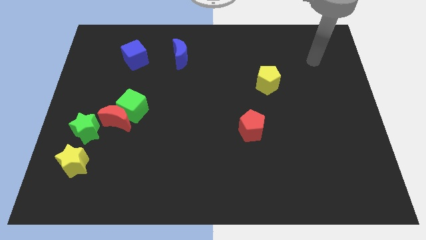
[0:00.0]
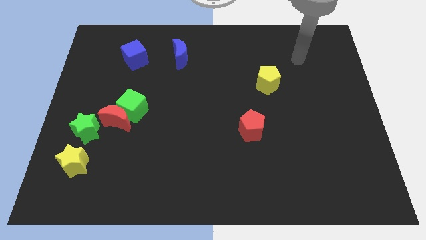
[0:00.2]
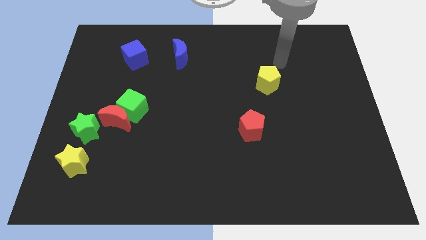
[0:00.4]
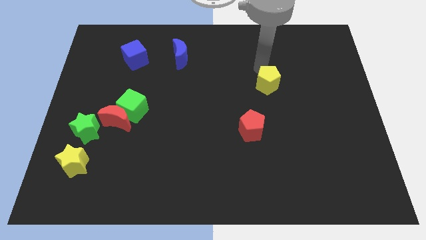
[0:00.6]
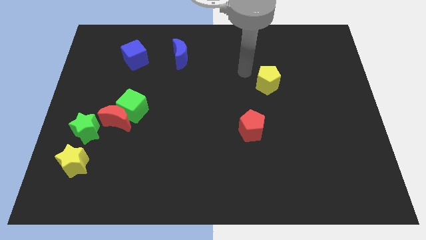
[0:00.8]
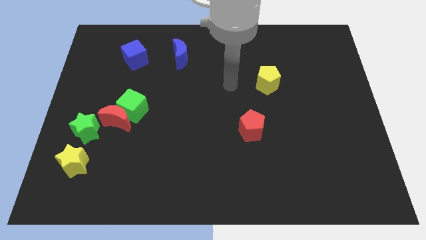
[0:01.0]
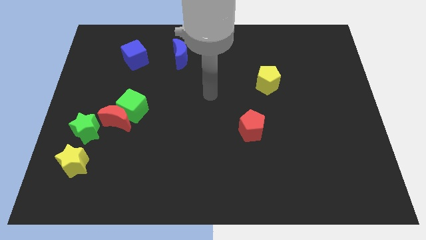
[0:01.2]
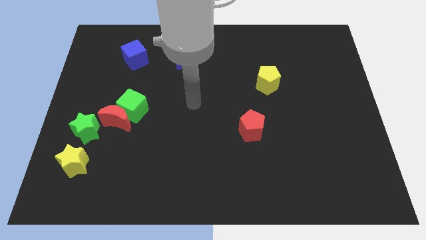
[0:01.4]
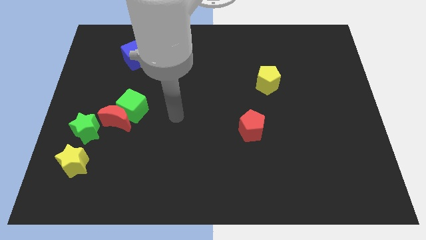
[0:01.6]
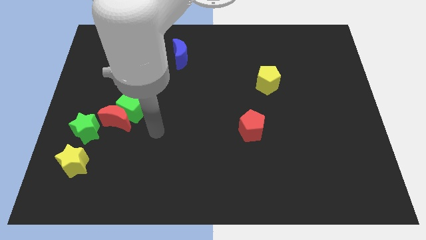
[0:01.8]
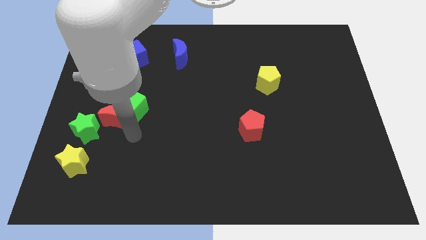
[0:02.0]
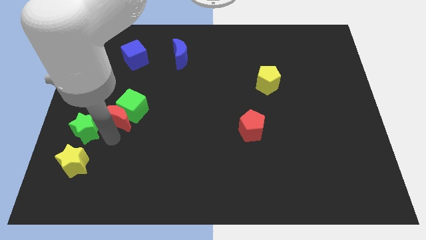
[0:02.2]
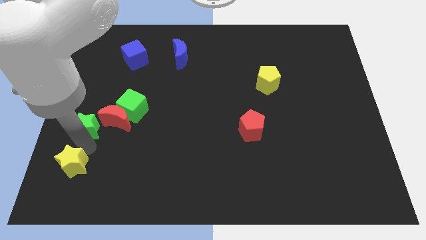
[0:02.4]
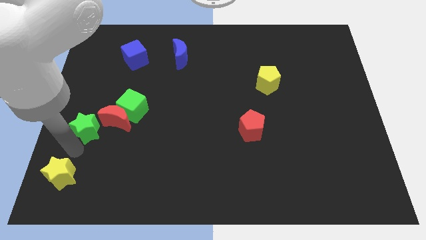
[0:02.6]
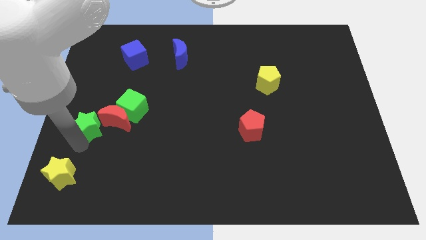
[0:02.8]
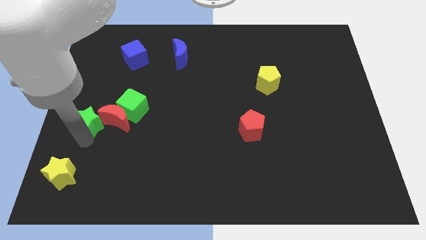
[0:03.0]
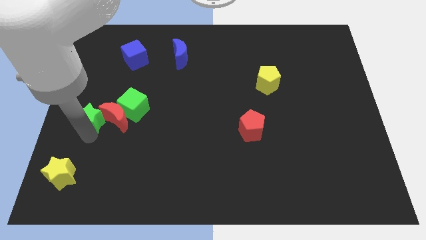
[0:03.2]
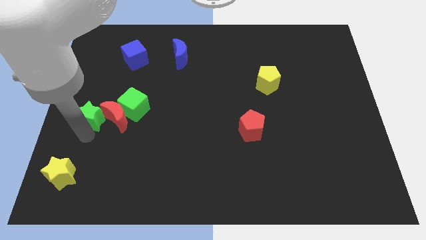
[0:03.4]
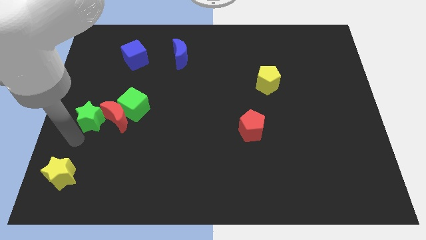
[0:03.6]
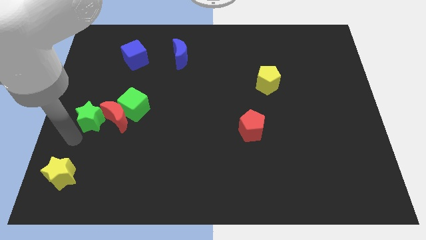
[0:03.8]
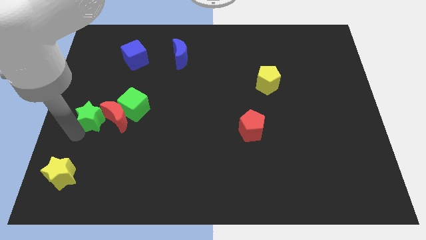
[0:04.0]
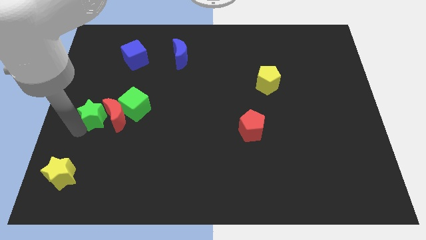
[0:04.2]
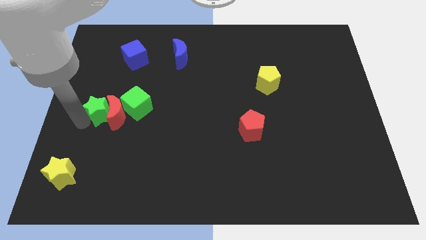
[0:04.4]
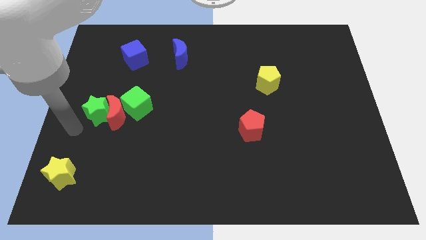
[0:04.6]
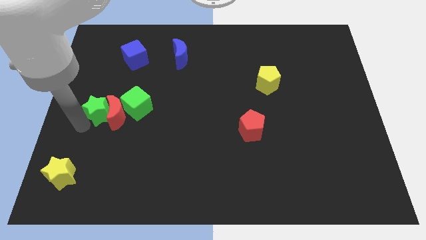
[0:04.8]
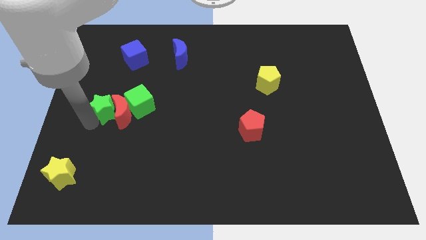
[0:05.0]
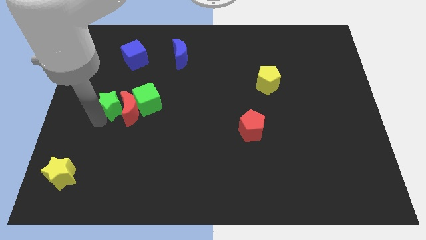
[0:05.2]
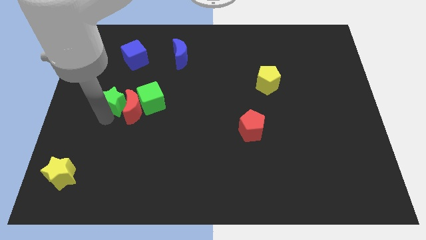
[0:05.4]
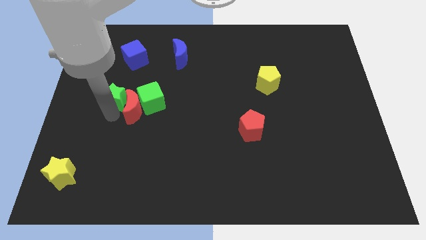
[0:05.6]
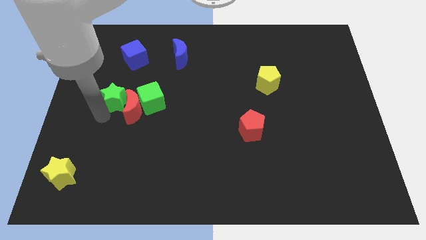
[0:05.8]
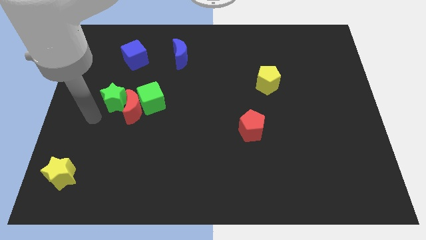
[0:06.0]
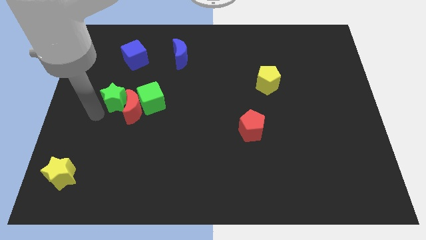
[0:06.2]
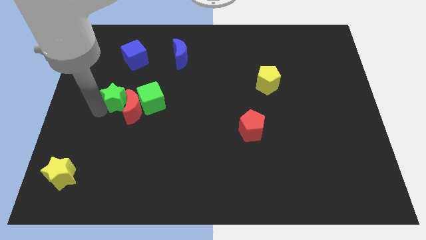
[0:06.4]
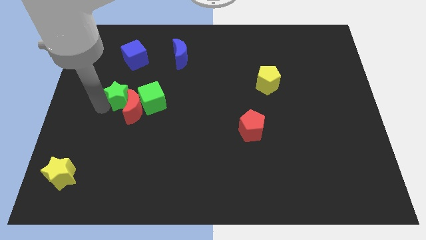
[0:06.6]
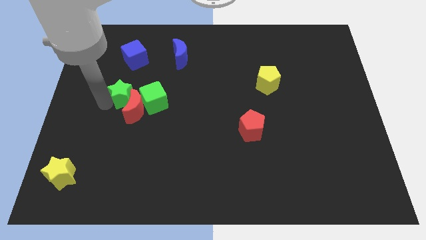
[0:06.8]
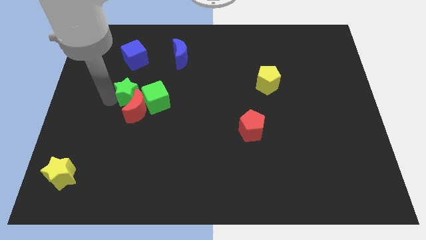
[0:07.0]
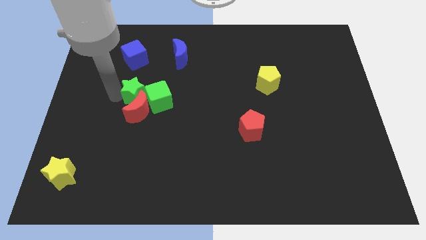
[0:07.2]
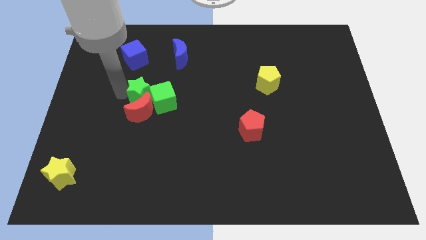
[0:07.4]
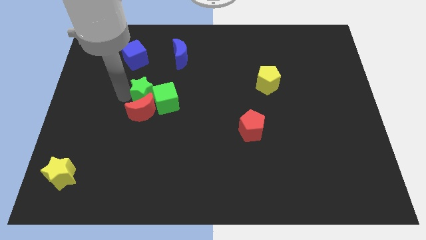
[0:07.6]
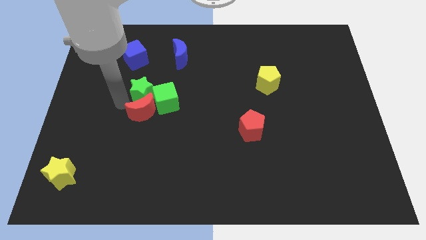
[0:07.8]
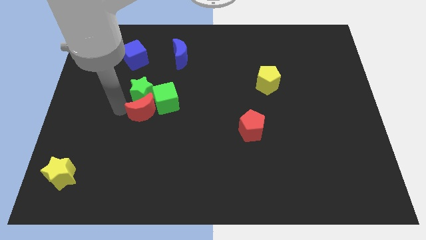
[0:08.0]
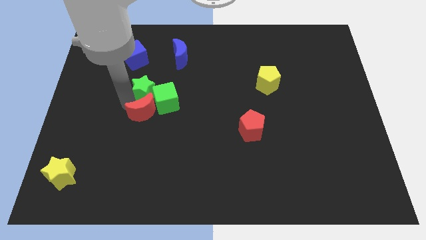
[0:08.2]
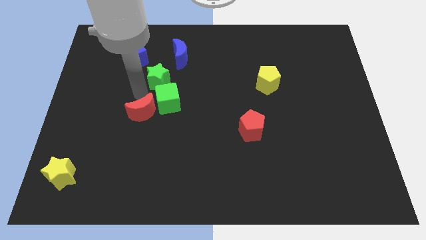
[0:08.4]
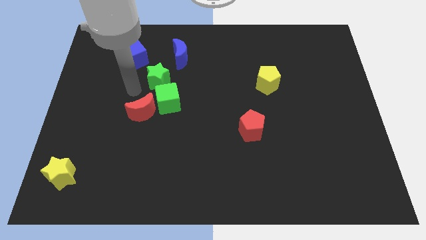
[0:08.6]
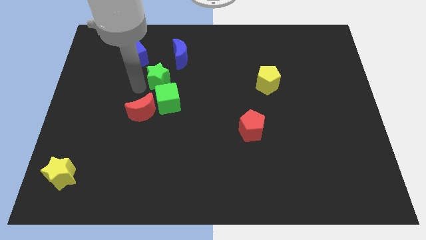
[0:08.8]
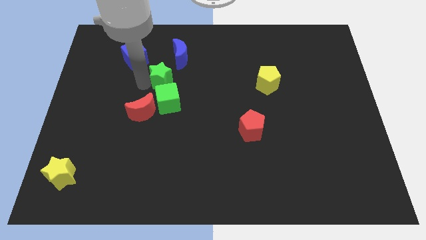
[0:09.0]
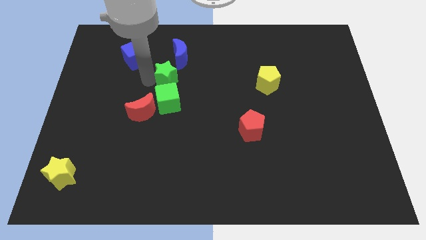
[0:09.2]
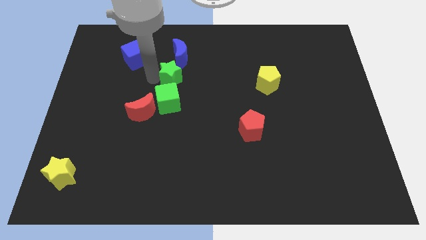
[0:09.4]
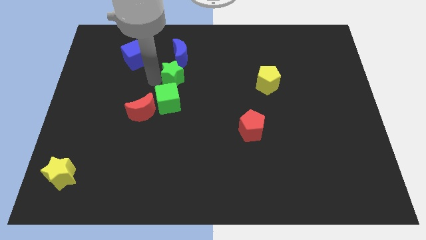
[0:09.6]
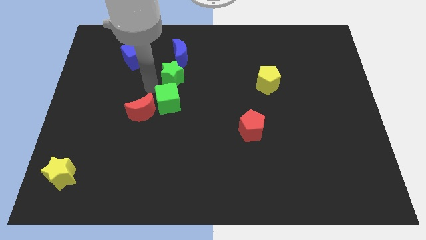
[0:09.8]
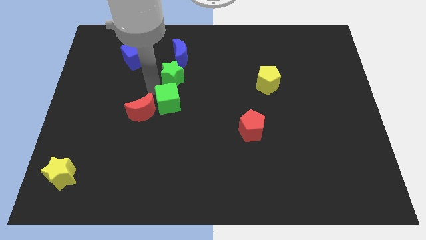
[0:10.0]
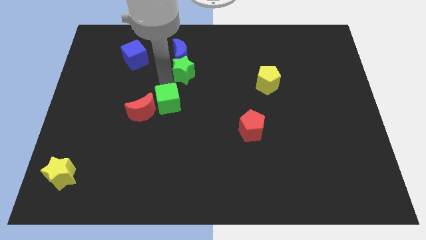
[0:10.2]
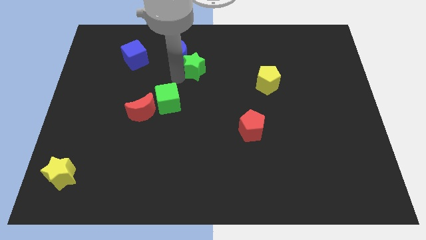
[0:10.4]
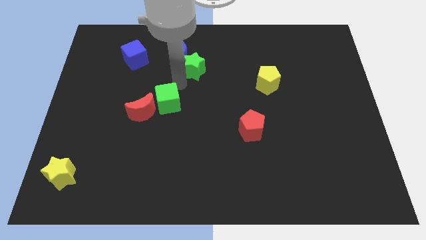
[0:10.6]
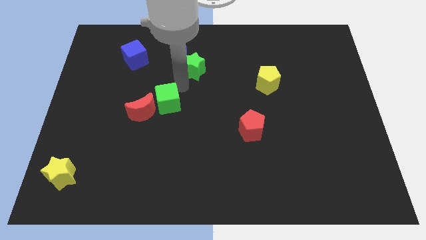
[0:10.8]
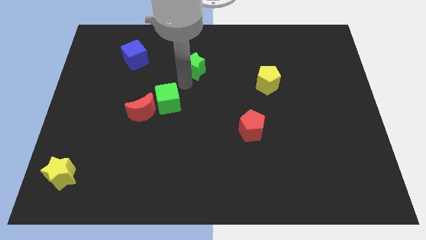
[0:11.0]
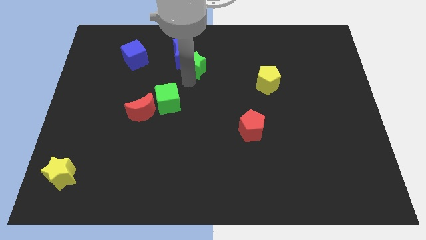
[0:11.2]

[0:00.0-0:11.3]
slide the green star just right of the blue moon

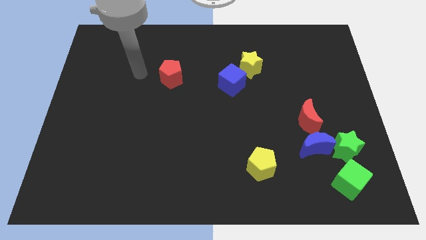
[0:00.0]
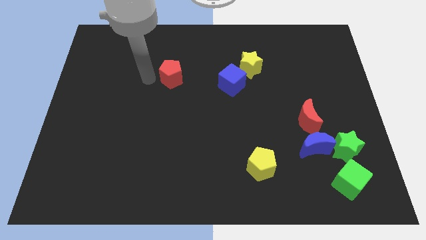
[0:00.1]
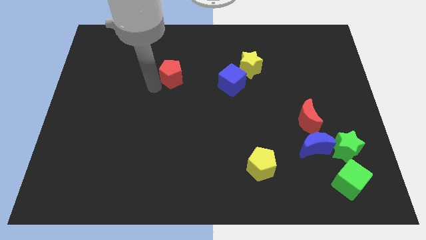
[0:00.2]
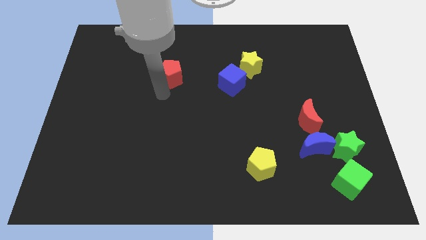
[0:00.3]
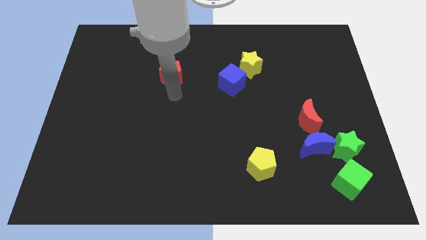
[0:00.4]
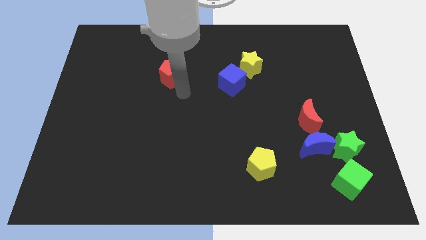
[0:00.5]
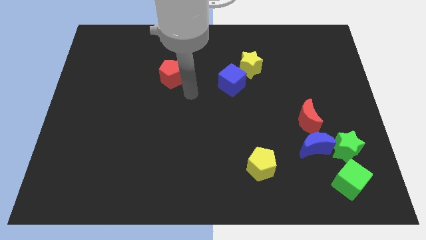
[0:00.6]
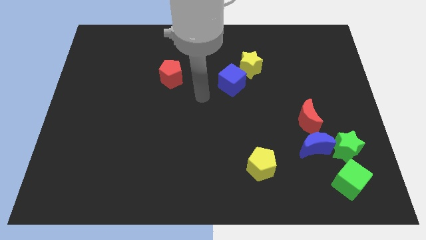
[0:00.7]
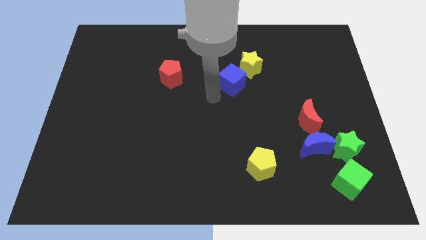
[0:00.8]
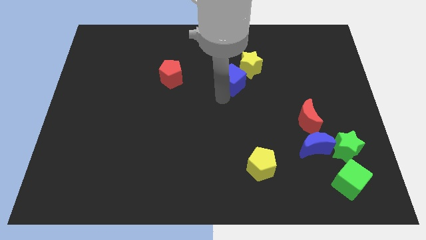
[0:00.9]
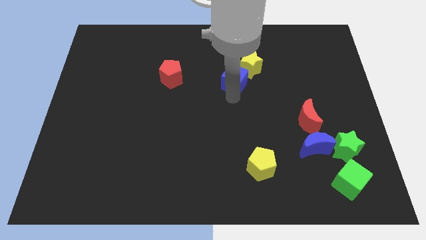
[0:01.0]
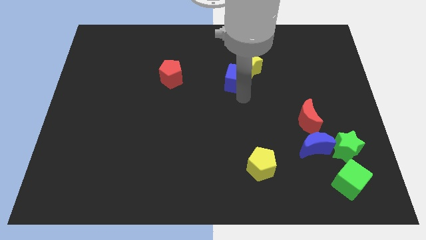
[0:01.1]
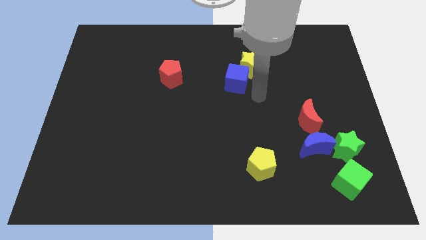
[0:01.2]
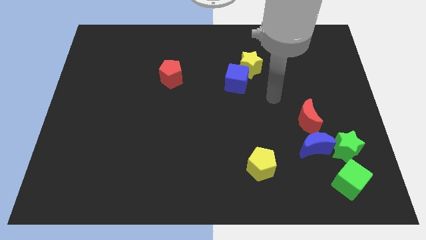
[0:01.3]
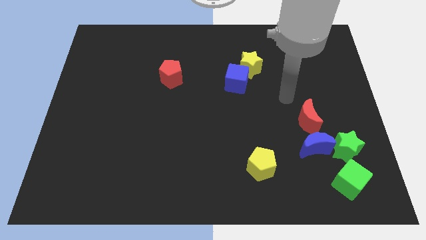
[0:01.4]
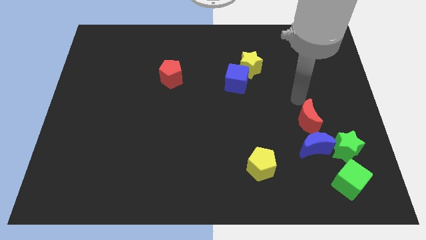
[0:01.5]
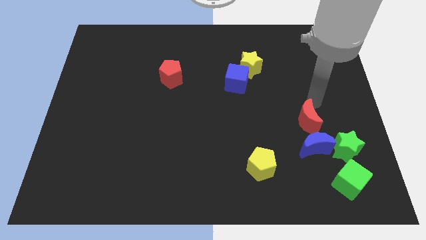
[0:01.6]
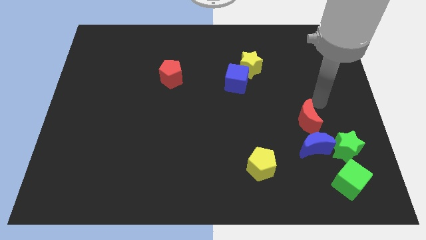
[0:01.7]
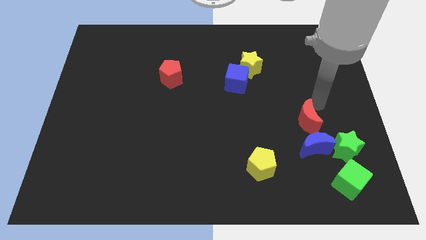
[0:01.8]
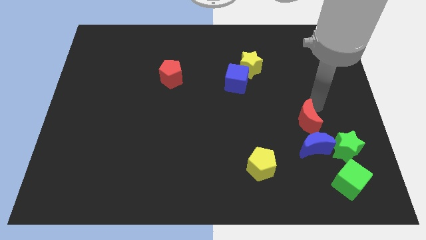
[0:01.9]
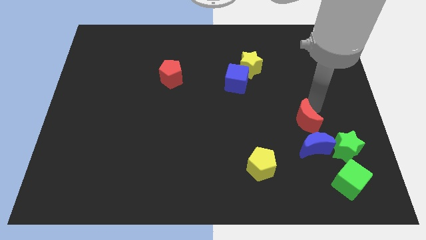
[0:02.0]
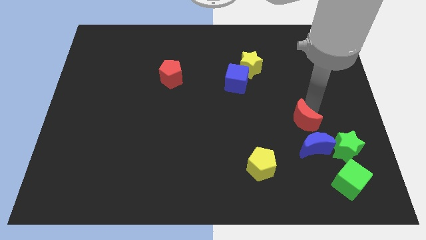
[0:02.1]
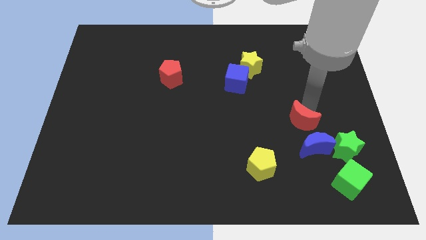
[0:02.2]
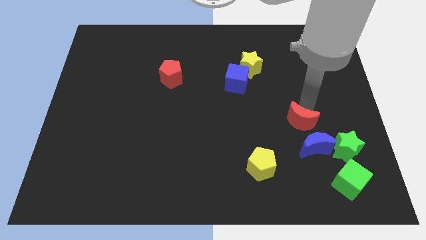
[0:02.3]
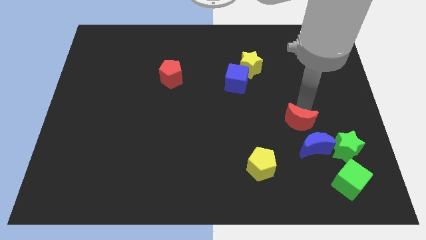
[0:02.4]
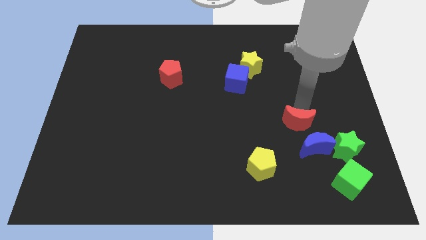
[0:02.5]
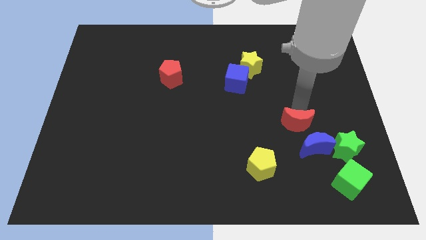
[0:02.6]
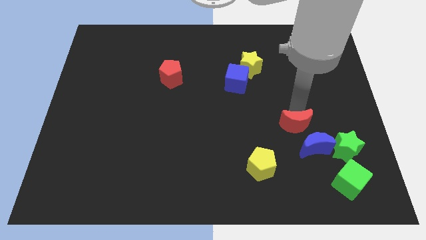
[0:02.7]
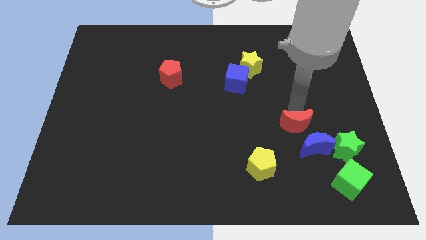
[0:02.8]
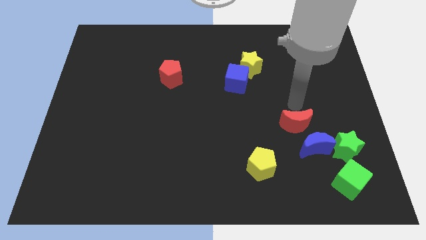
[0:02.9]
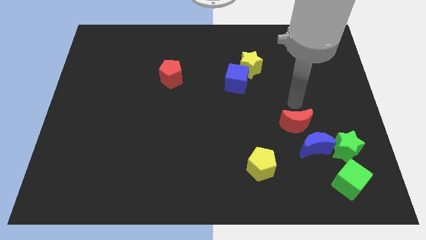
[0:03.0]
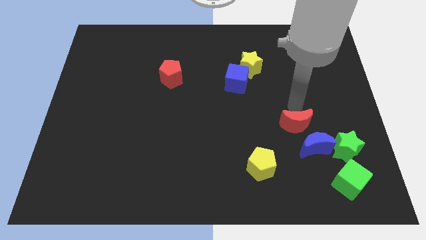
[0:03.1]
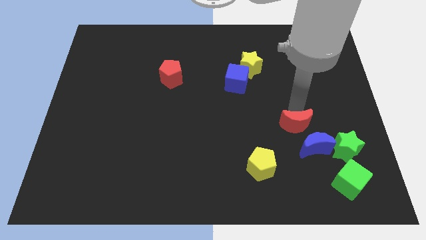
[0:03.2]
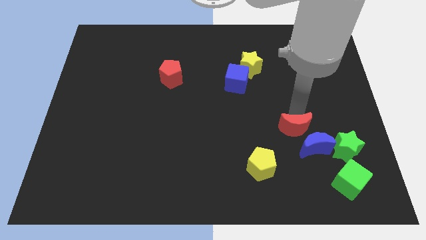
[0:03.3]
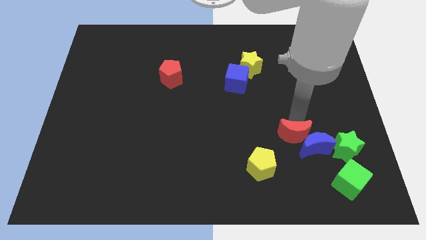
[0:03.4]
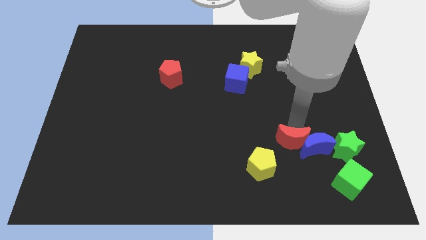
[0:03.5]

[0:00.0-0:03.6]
slide the red moon to the bottom left of the blue moon
